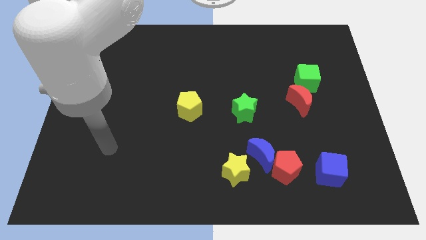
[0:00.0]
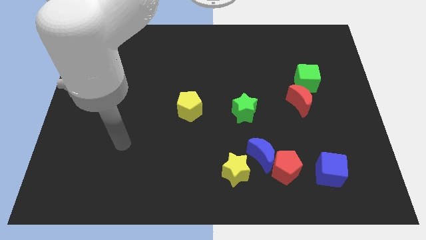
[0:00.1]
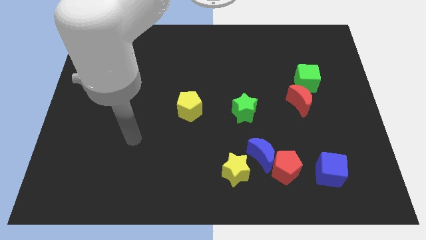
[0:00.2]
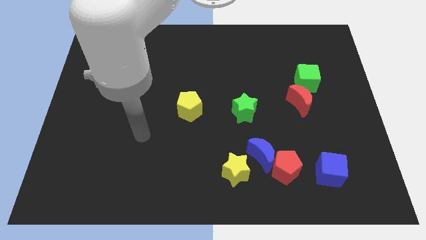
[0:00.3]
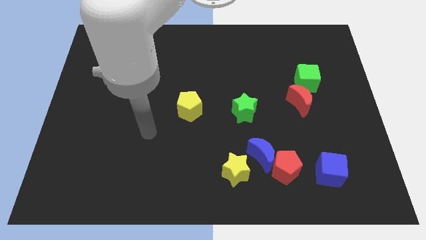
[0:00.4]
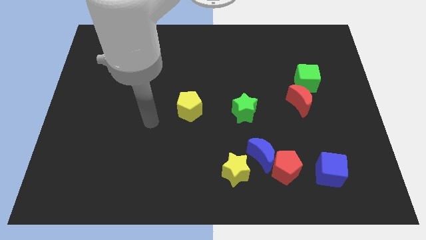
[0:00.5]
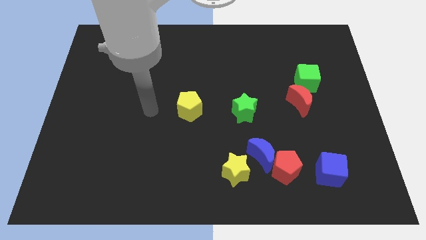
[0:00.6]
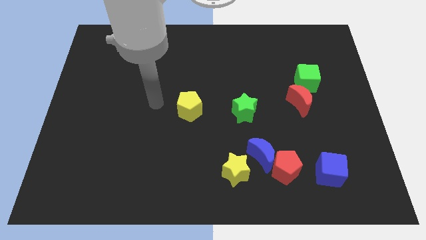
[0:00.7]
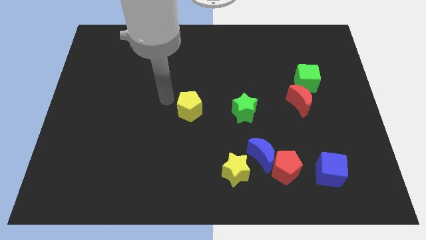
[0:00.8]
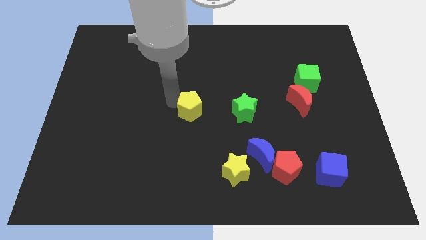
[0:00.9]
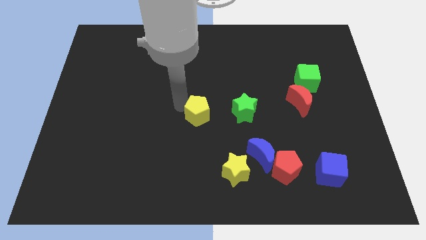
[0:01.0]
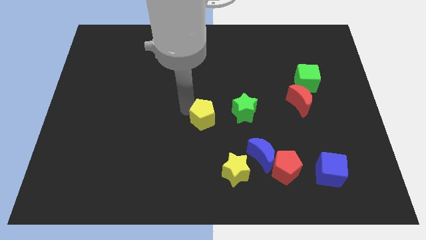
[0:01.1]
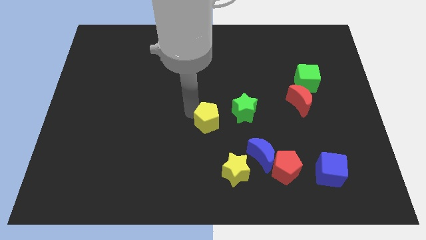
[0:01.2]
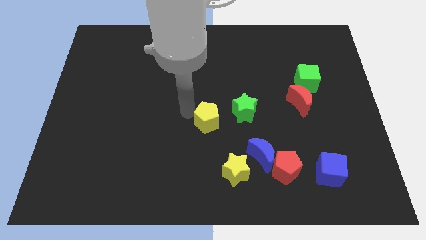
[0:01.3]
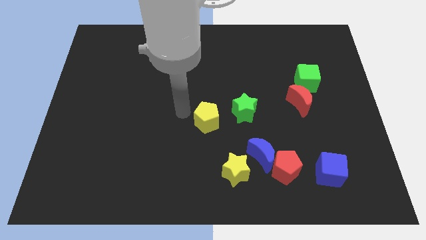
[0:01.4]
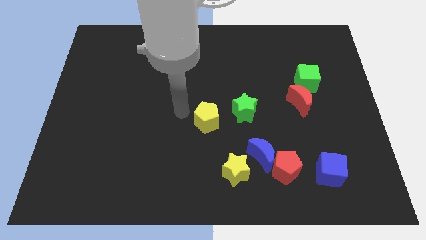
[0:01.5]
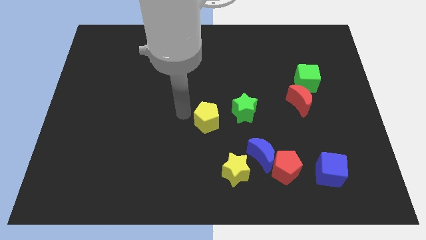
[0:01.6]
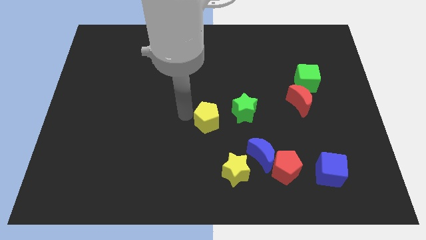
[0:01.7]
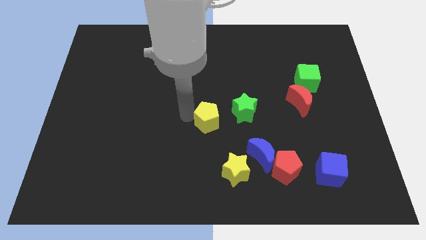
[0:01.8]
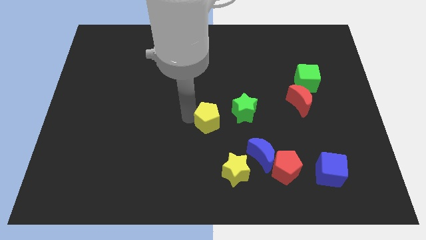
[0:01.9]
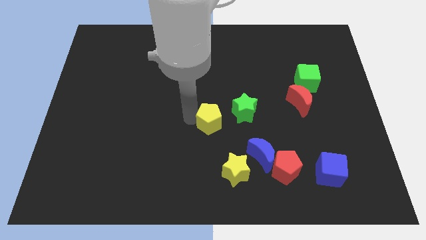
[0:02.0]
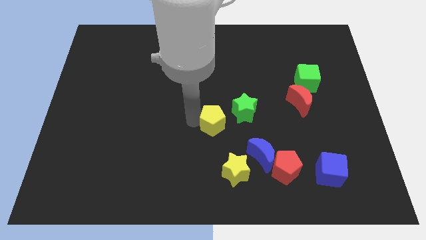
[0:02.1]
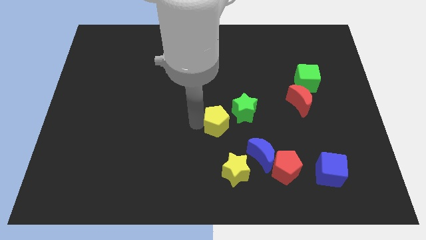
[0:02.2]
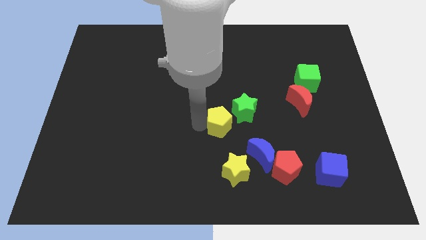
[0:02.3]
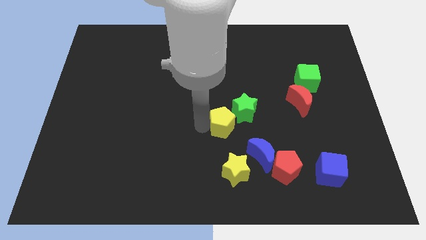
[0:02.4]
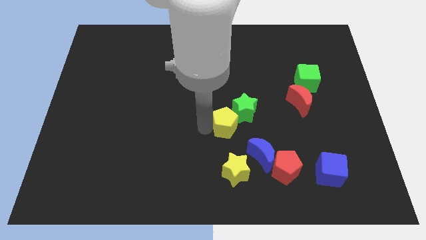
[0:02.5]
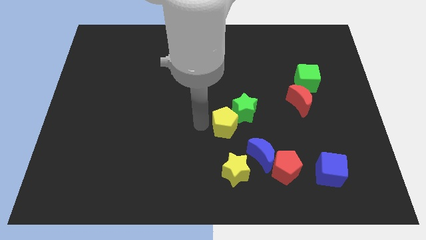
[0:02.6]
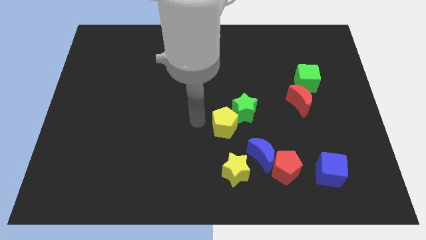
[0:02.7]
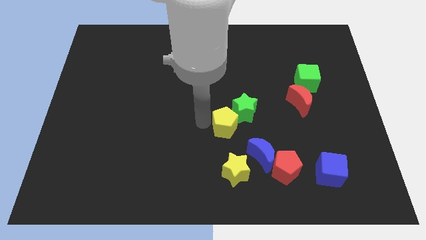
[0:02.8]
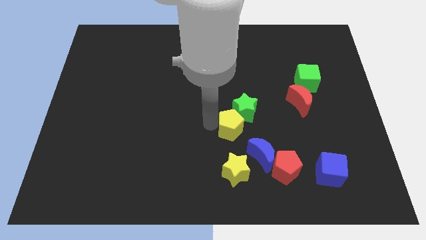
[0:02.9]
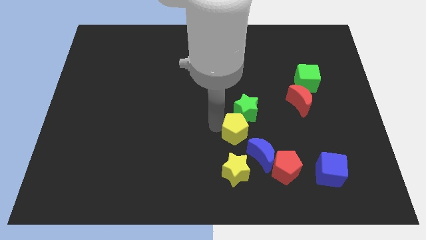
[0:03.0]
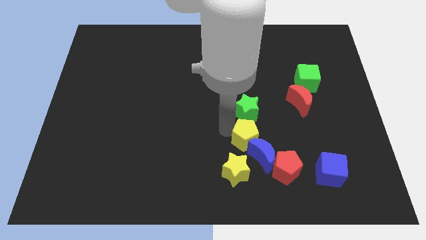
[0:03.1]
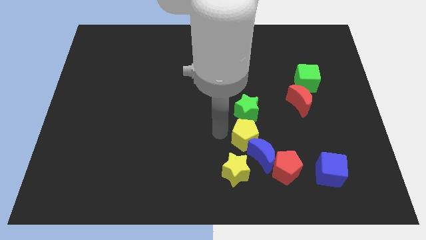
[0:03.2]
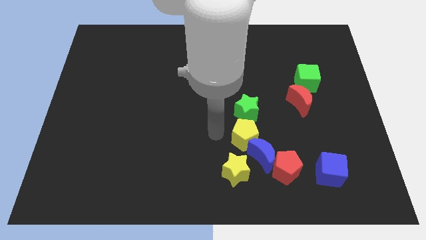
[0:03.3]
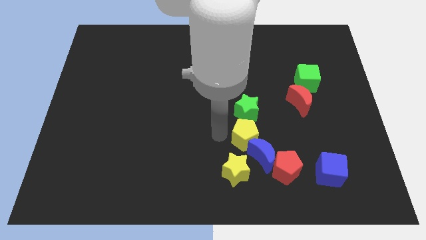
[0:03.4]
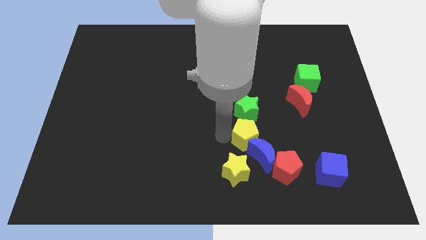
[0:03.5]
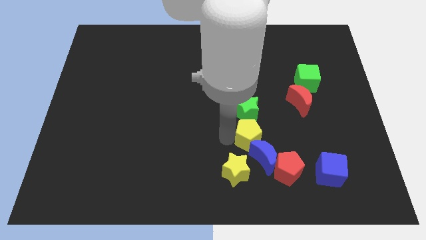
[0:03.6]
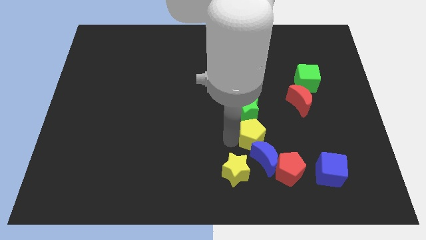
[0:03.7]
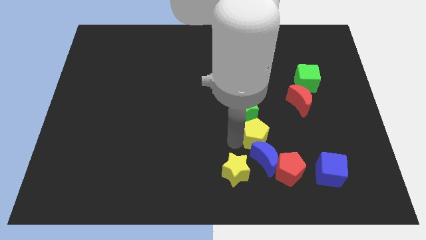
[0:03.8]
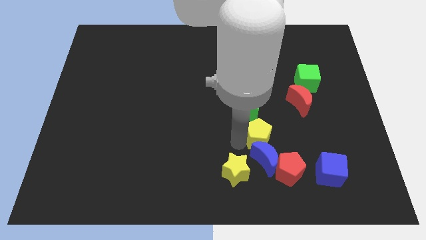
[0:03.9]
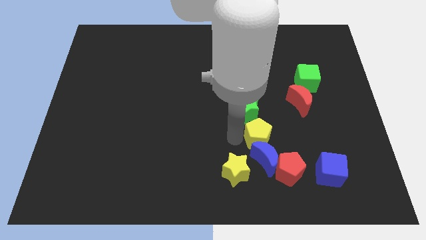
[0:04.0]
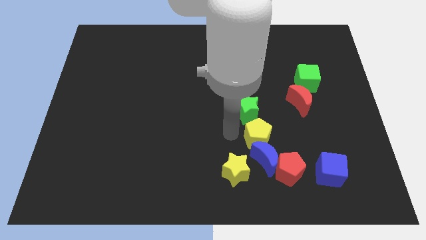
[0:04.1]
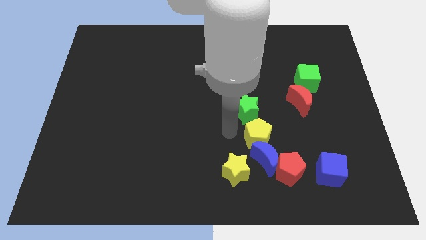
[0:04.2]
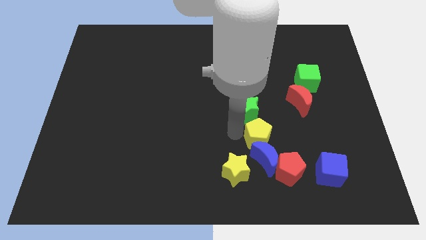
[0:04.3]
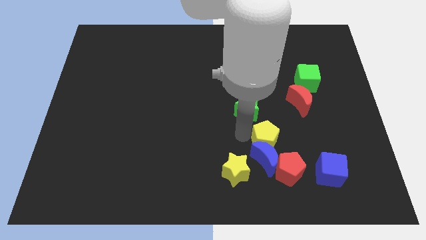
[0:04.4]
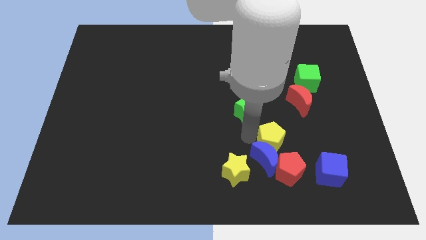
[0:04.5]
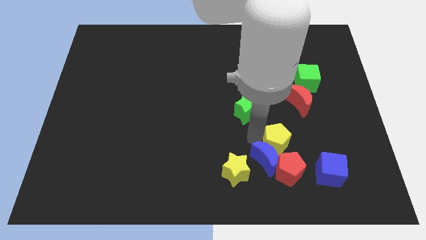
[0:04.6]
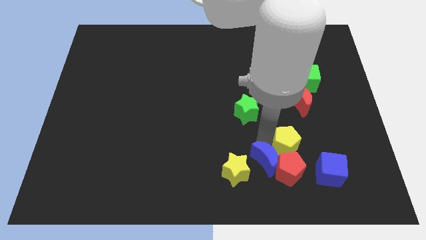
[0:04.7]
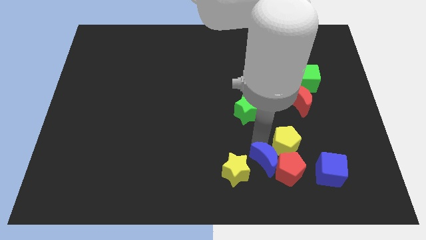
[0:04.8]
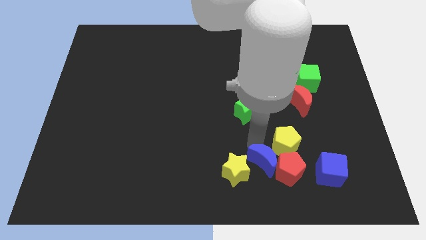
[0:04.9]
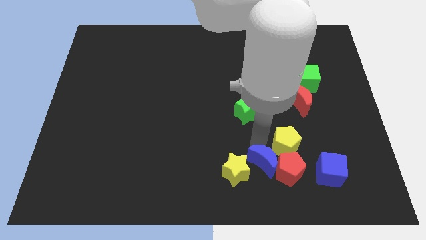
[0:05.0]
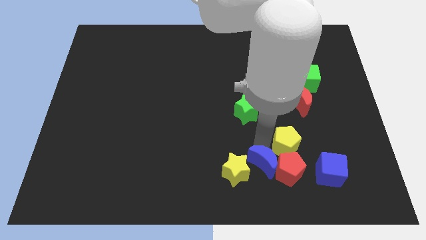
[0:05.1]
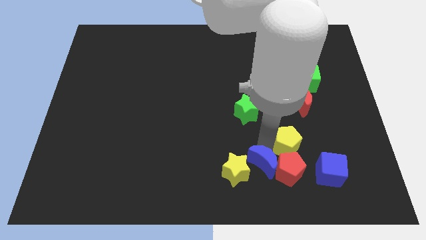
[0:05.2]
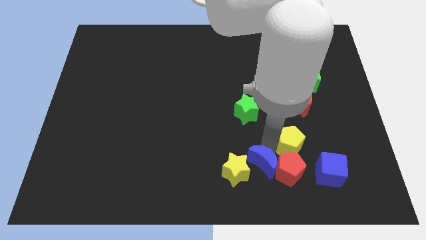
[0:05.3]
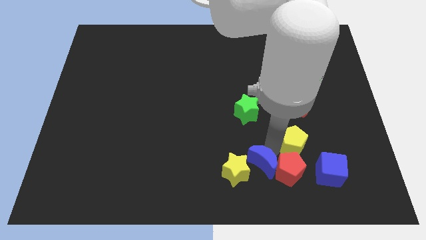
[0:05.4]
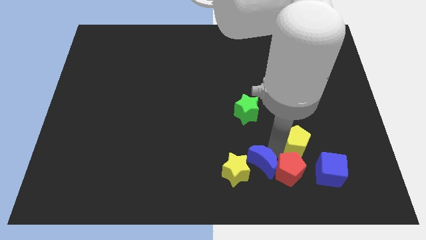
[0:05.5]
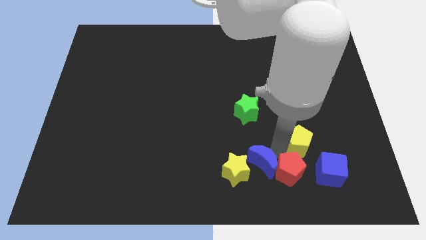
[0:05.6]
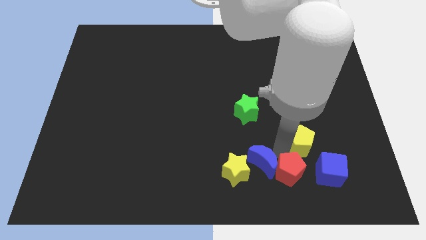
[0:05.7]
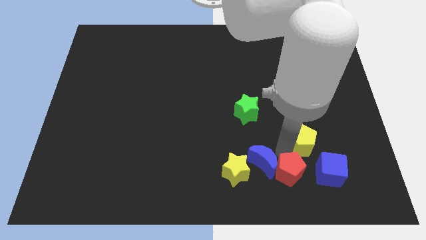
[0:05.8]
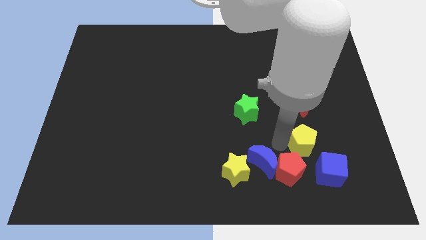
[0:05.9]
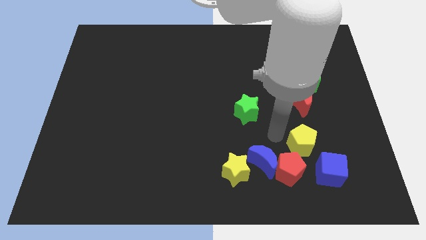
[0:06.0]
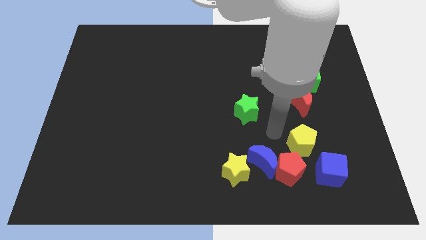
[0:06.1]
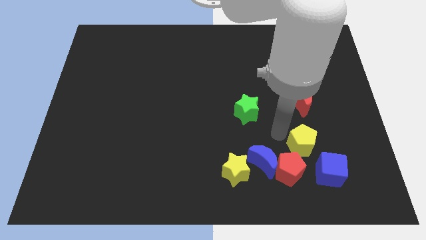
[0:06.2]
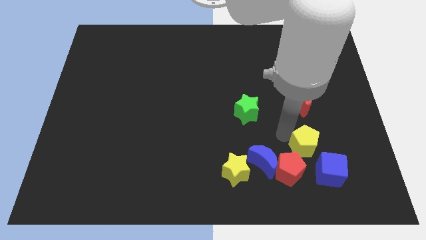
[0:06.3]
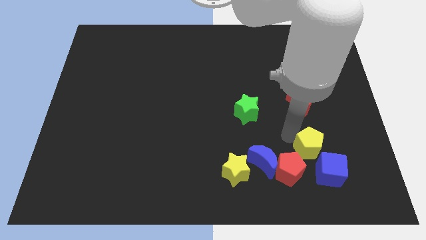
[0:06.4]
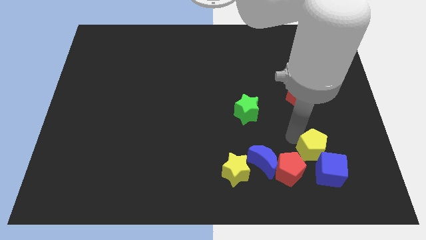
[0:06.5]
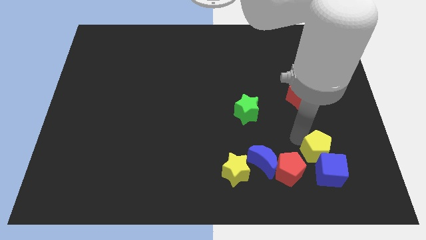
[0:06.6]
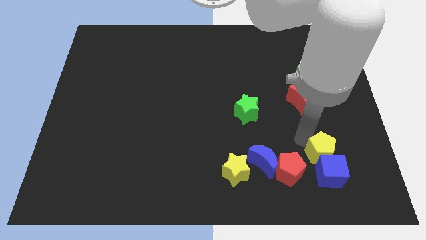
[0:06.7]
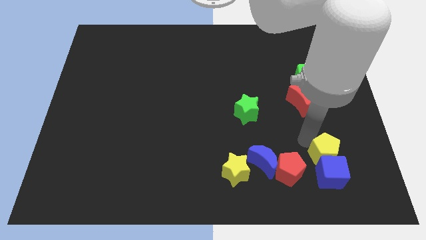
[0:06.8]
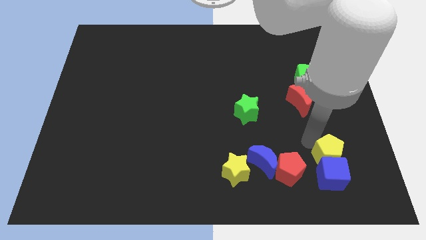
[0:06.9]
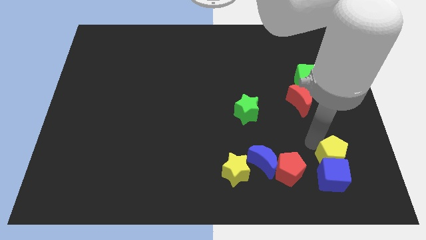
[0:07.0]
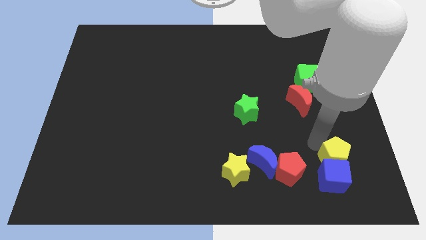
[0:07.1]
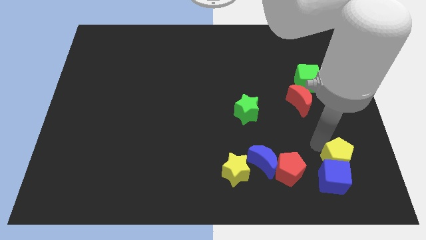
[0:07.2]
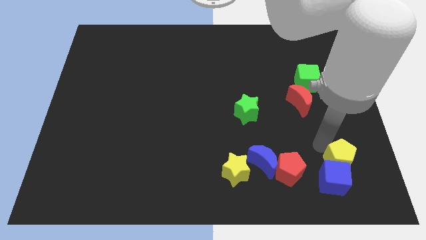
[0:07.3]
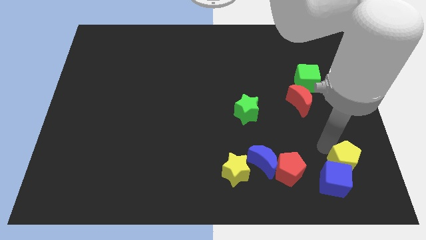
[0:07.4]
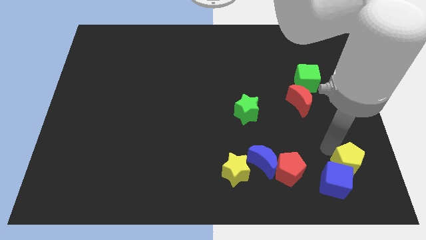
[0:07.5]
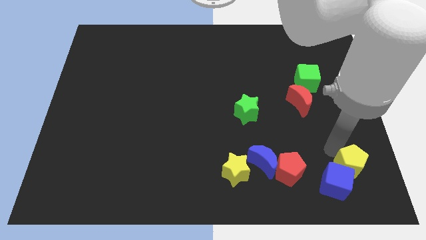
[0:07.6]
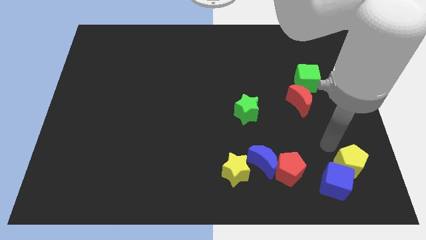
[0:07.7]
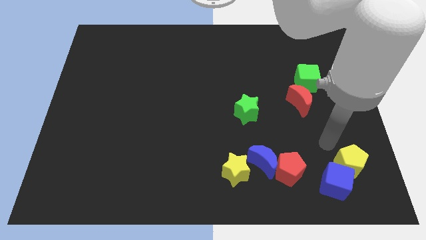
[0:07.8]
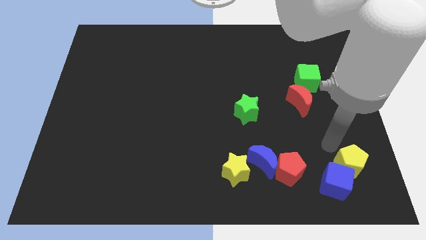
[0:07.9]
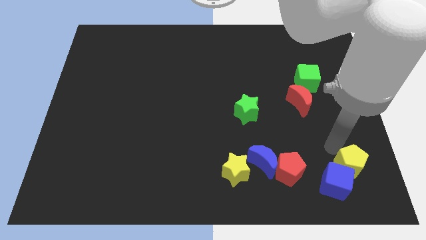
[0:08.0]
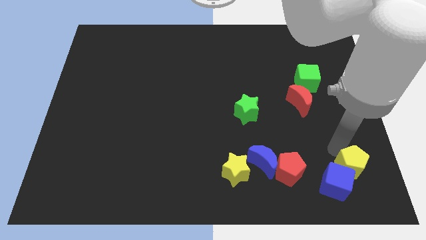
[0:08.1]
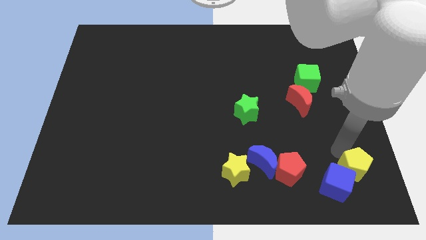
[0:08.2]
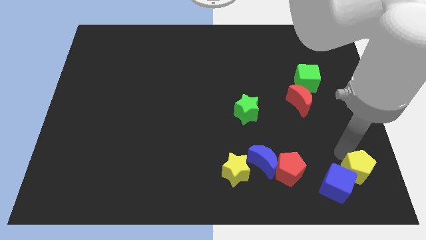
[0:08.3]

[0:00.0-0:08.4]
slide the yellow pentagon to the lower right corner
